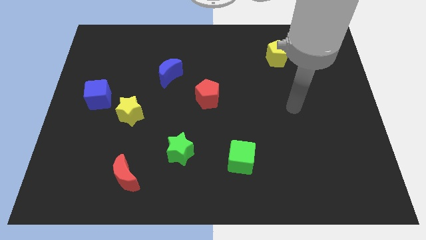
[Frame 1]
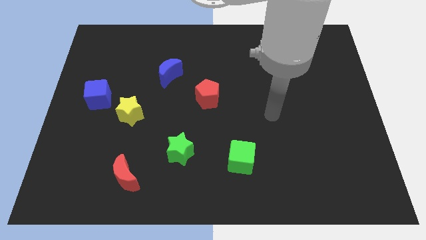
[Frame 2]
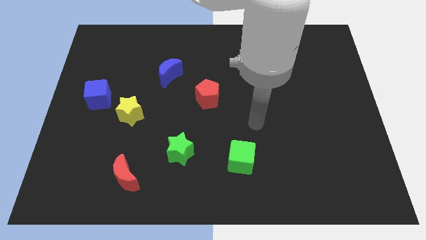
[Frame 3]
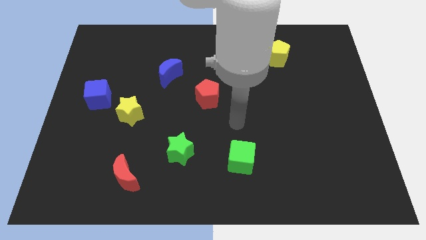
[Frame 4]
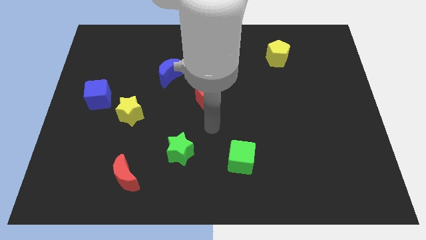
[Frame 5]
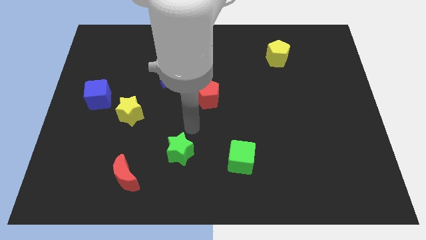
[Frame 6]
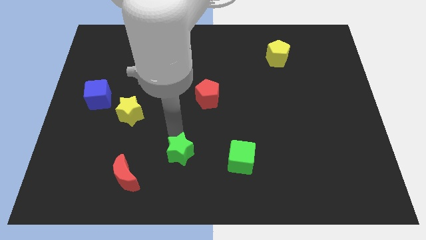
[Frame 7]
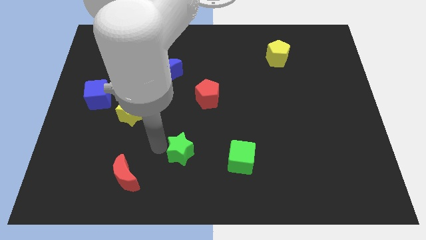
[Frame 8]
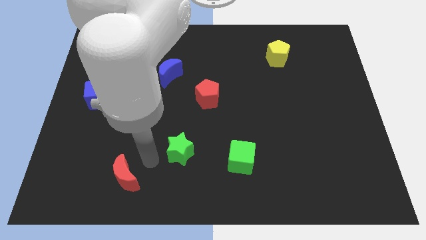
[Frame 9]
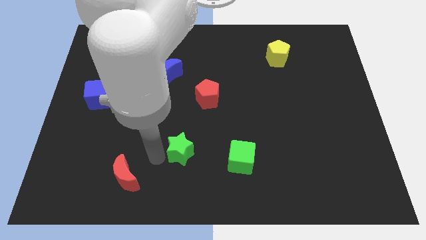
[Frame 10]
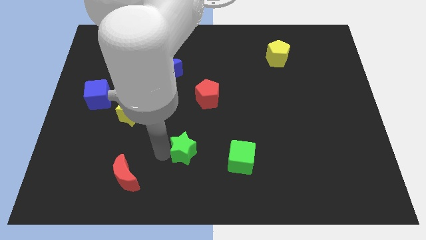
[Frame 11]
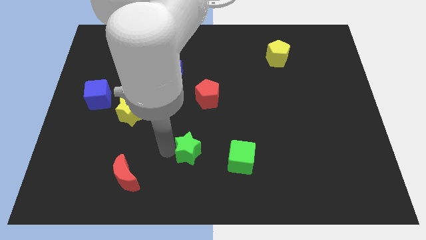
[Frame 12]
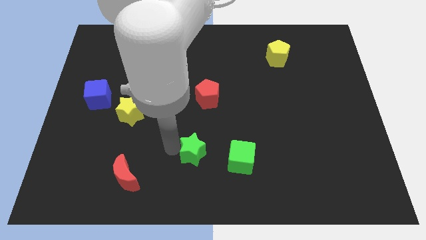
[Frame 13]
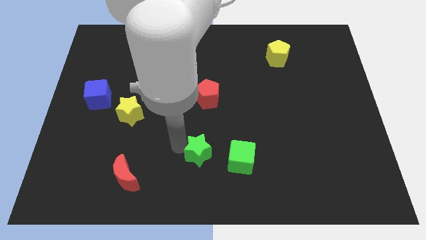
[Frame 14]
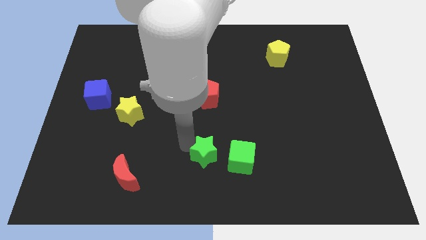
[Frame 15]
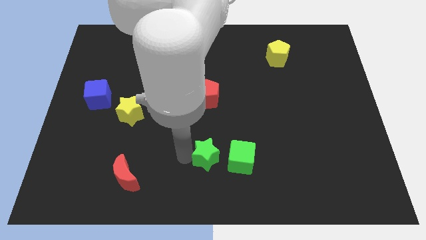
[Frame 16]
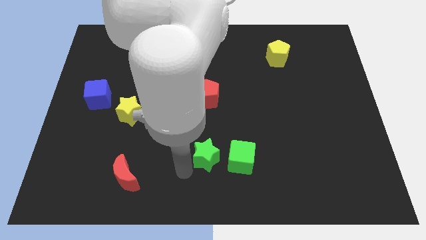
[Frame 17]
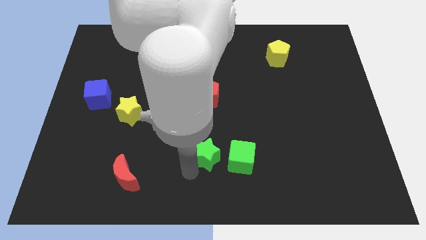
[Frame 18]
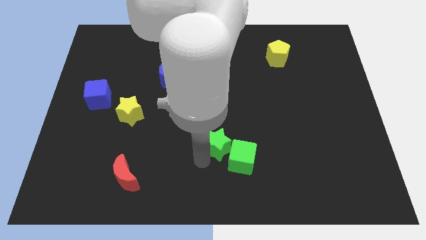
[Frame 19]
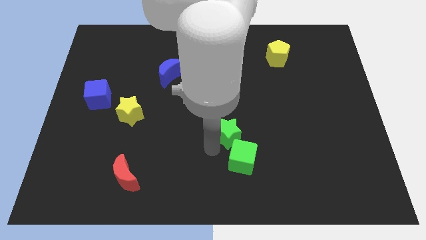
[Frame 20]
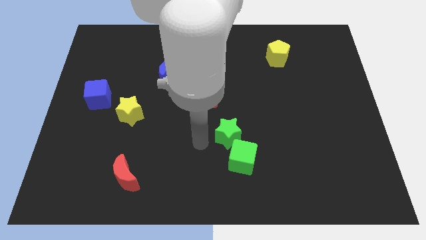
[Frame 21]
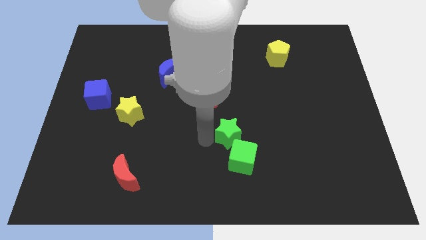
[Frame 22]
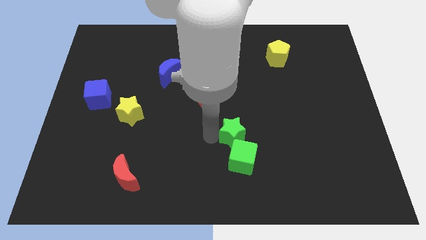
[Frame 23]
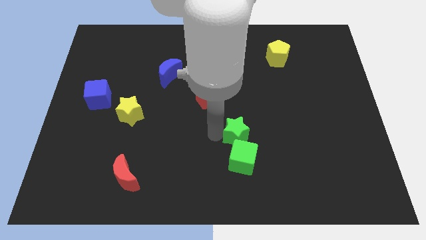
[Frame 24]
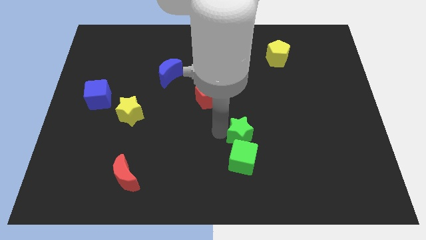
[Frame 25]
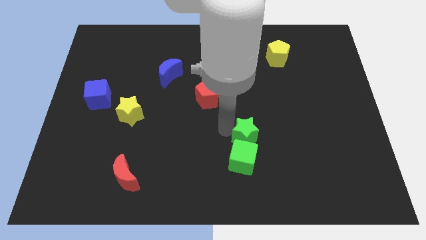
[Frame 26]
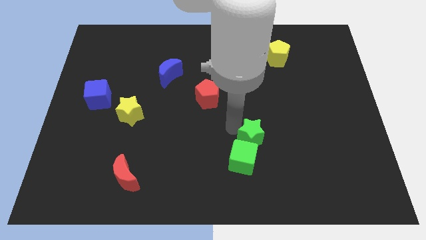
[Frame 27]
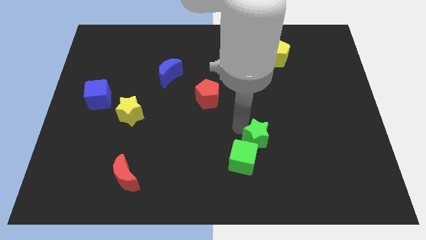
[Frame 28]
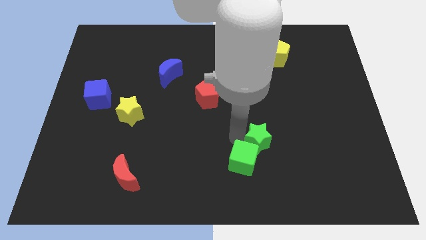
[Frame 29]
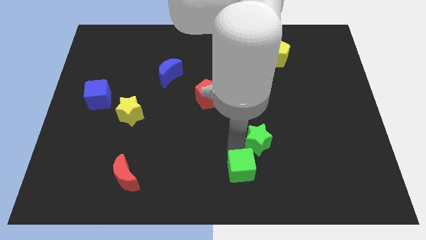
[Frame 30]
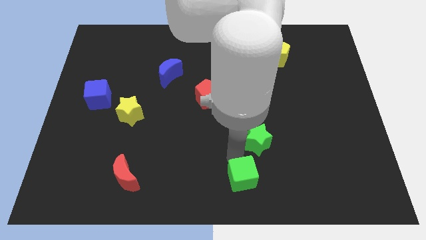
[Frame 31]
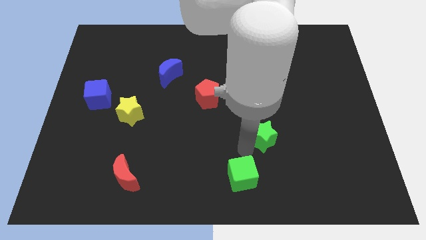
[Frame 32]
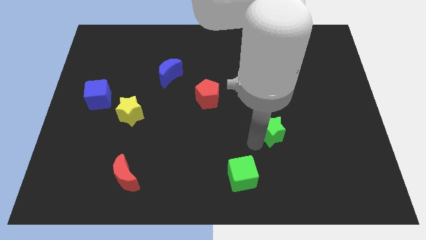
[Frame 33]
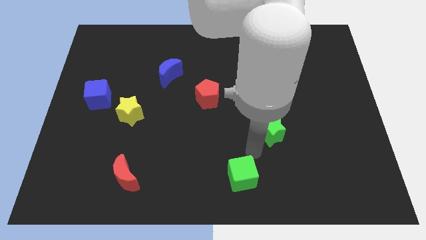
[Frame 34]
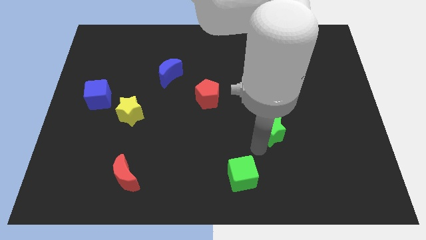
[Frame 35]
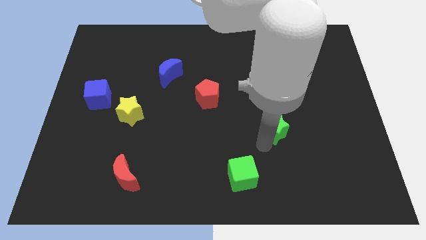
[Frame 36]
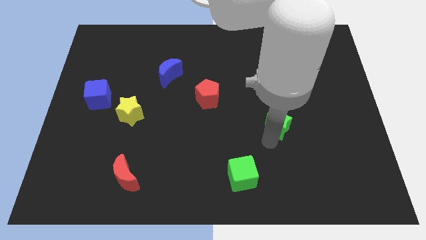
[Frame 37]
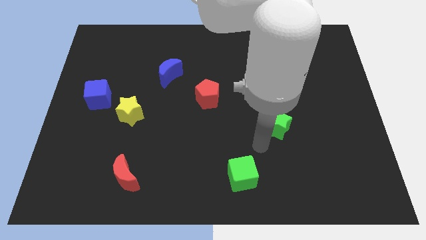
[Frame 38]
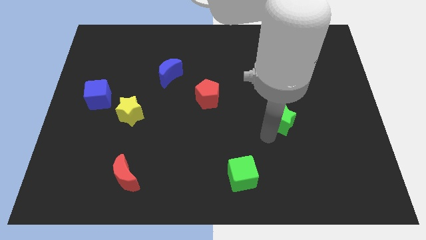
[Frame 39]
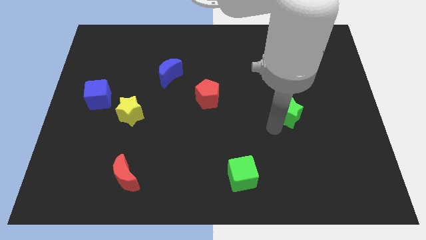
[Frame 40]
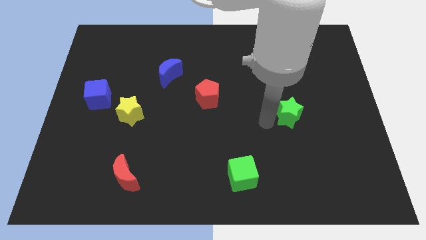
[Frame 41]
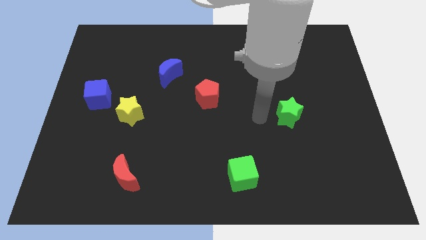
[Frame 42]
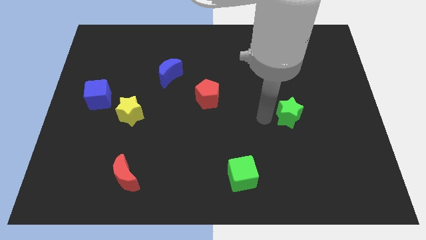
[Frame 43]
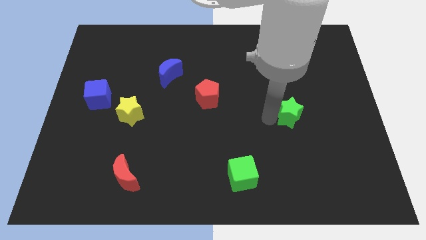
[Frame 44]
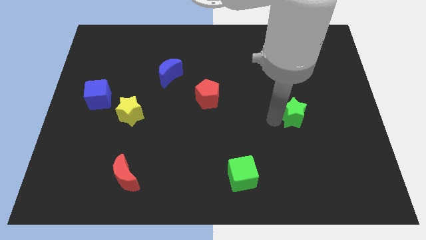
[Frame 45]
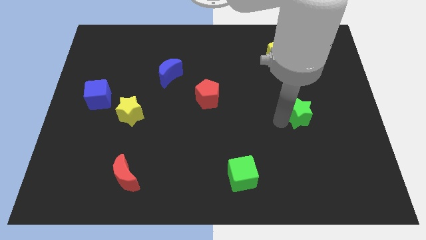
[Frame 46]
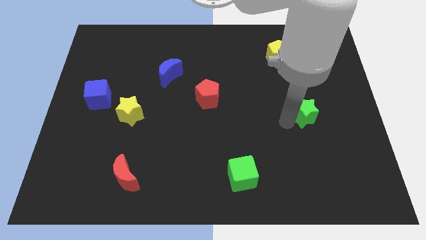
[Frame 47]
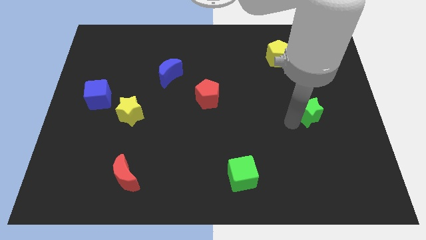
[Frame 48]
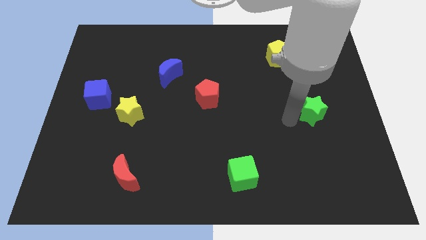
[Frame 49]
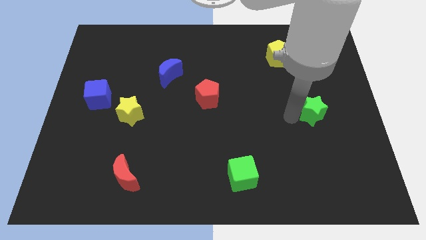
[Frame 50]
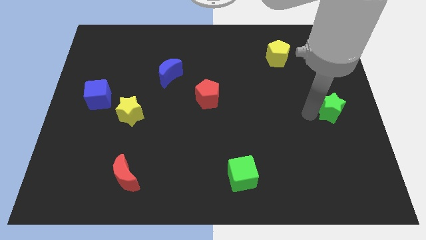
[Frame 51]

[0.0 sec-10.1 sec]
push the green star to the right side of the board

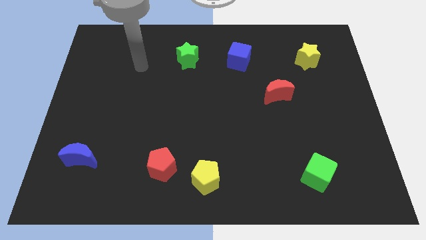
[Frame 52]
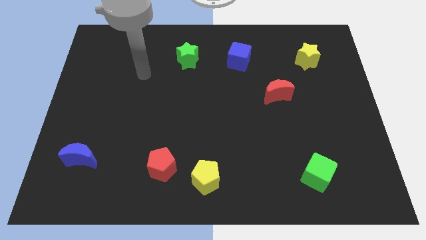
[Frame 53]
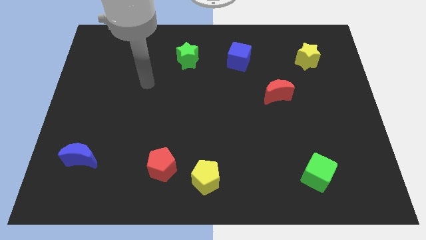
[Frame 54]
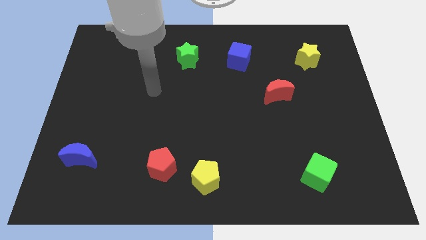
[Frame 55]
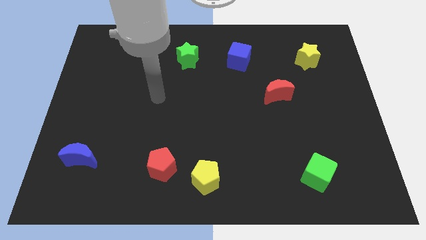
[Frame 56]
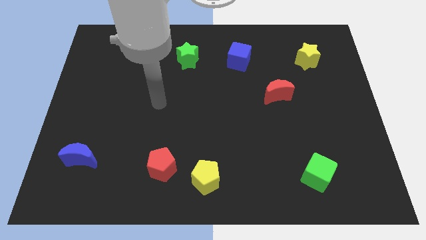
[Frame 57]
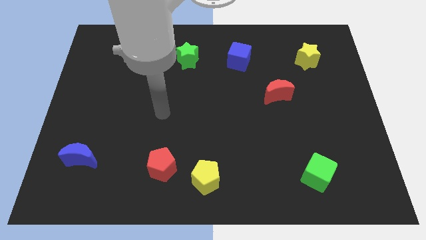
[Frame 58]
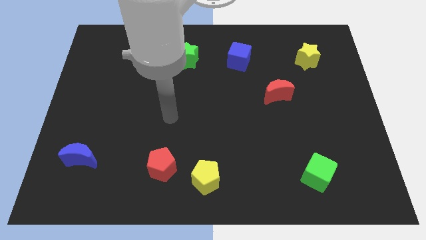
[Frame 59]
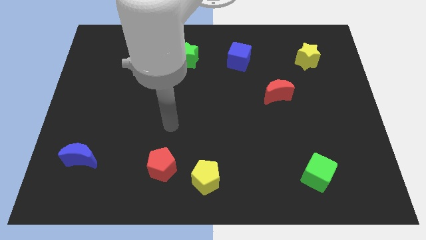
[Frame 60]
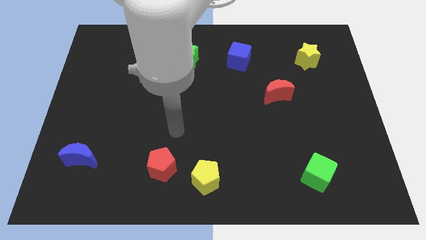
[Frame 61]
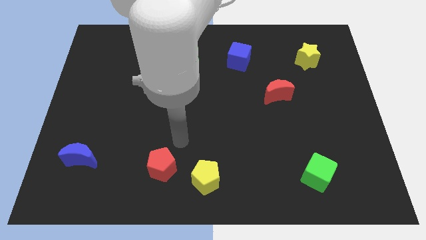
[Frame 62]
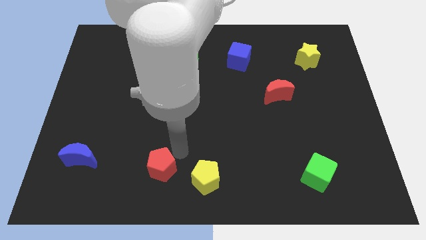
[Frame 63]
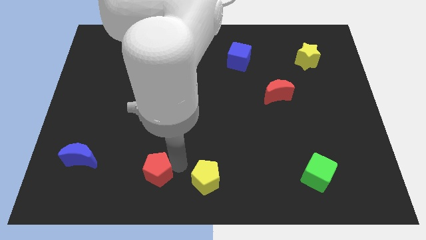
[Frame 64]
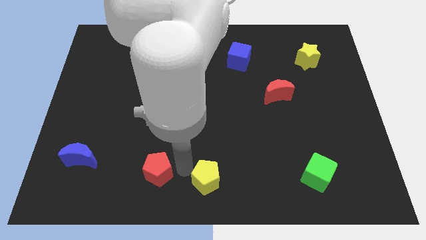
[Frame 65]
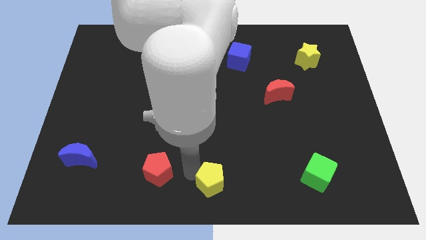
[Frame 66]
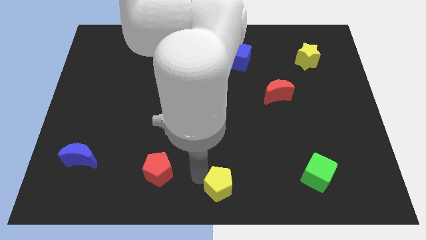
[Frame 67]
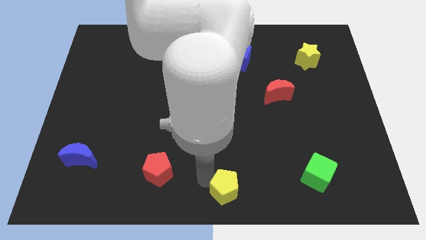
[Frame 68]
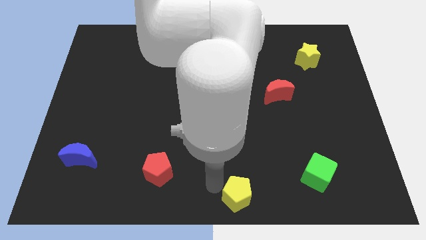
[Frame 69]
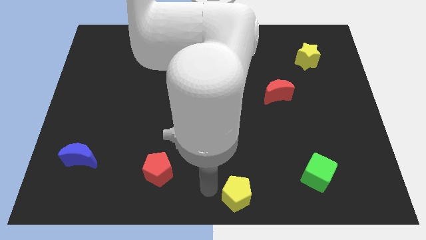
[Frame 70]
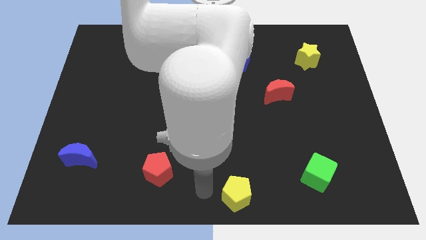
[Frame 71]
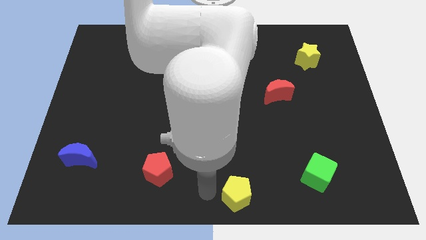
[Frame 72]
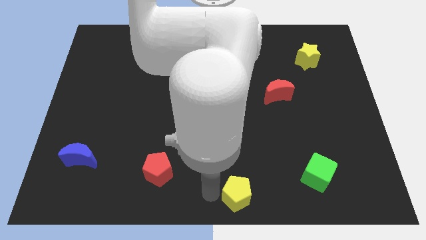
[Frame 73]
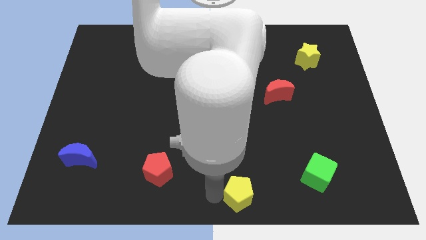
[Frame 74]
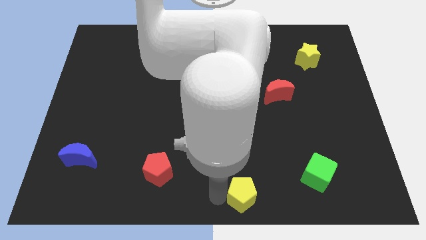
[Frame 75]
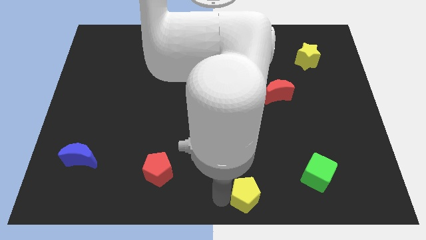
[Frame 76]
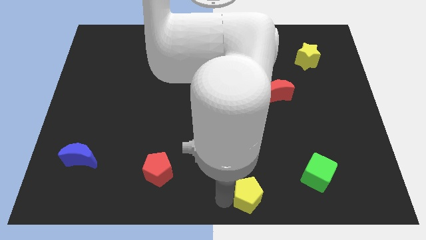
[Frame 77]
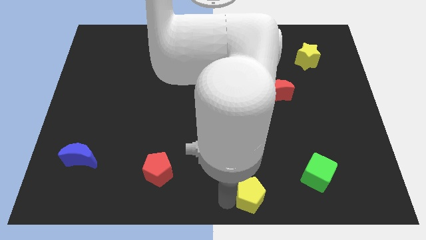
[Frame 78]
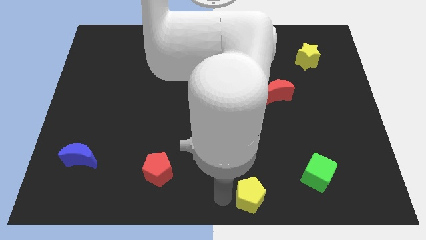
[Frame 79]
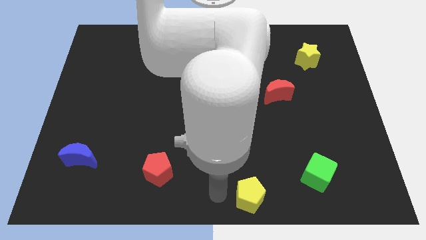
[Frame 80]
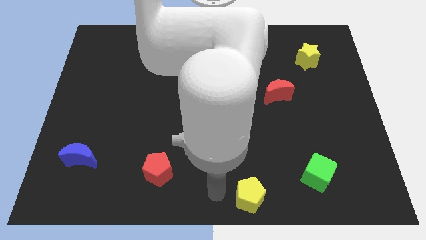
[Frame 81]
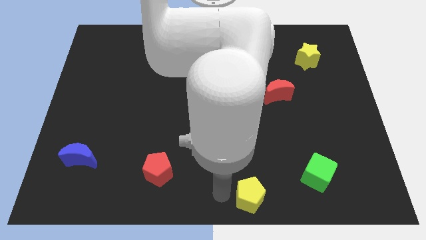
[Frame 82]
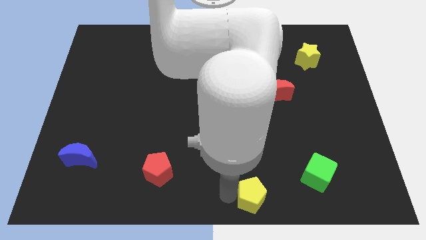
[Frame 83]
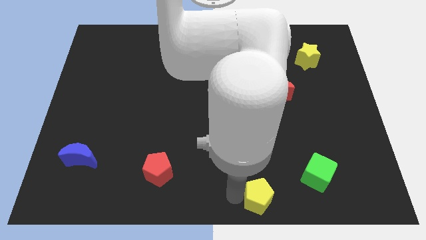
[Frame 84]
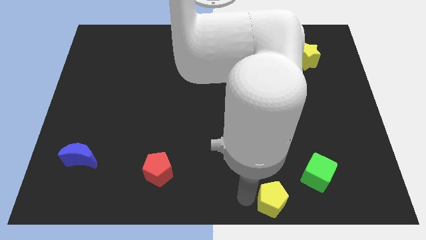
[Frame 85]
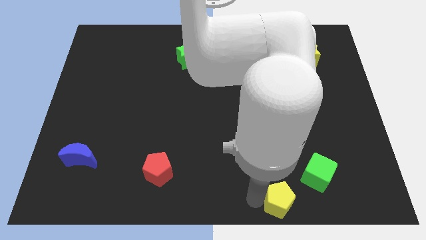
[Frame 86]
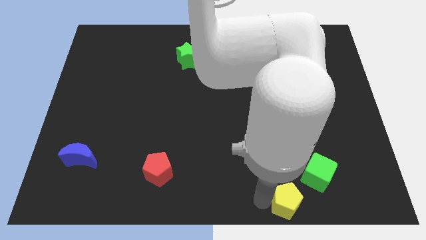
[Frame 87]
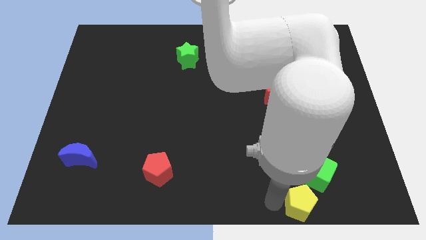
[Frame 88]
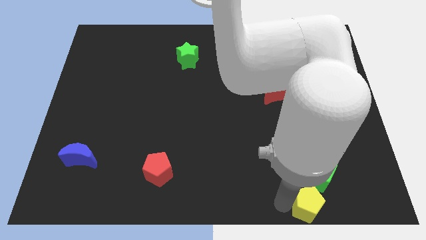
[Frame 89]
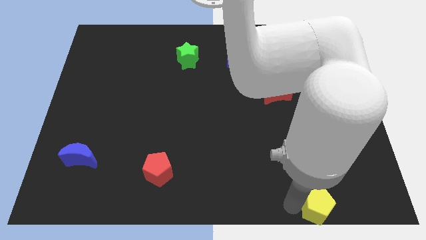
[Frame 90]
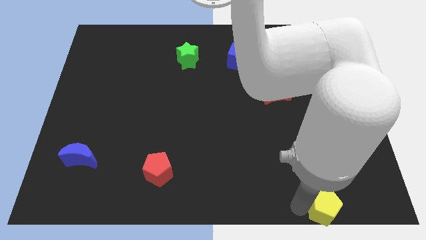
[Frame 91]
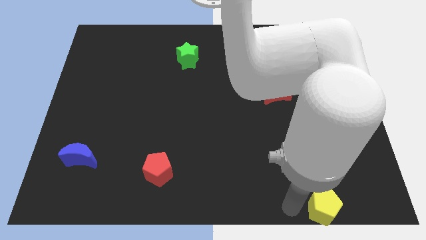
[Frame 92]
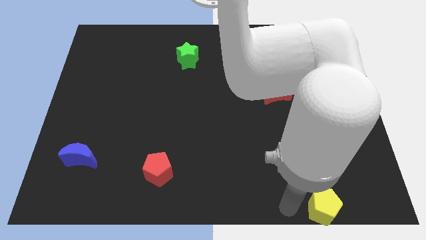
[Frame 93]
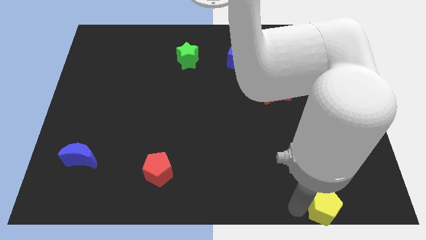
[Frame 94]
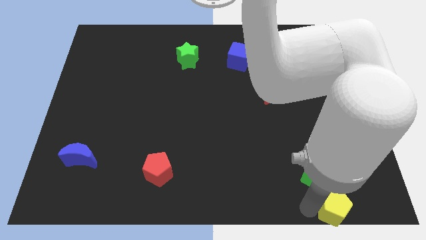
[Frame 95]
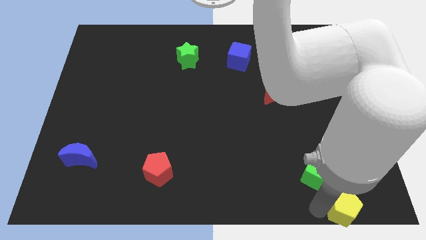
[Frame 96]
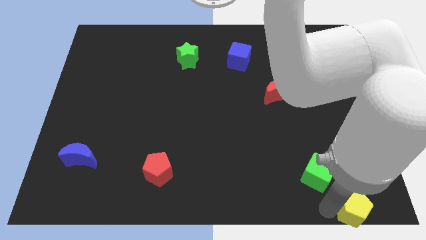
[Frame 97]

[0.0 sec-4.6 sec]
push the yellow pentagon to the bottom right
